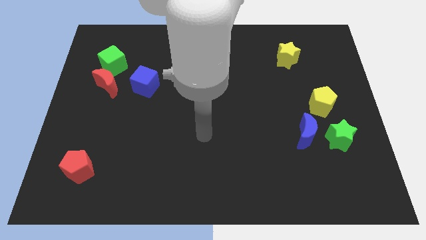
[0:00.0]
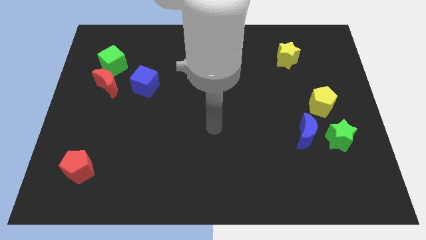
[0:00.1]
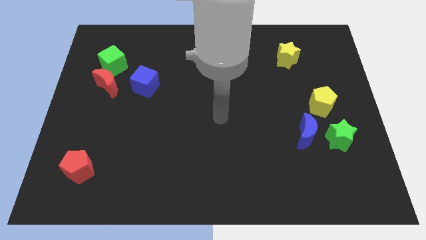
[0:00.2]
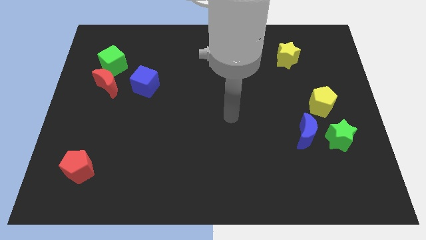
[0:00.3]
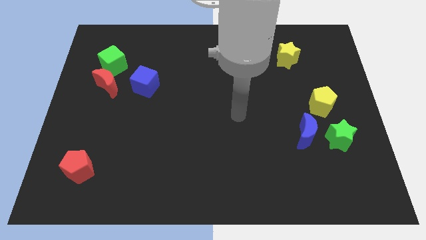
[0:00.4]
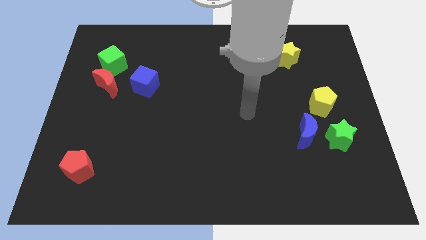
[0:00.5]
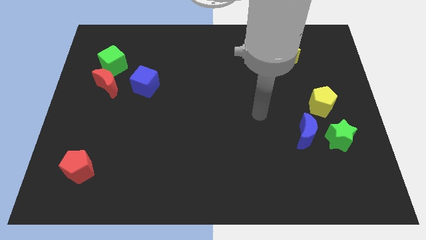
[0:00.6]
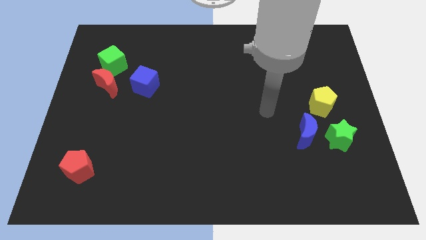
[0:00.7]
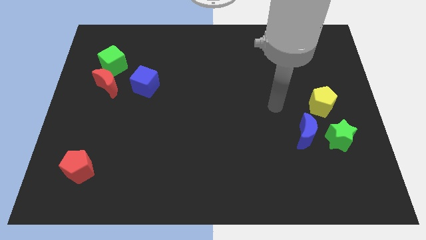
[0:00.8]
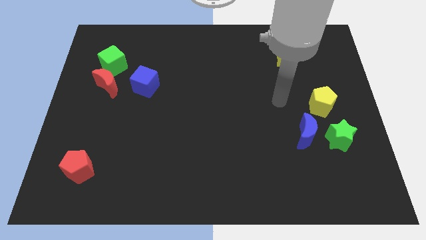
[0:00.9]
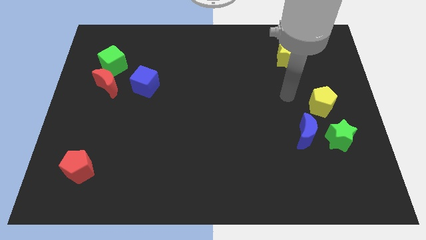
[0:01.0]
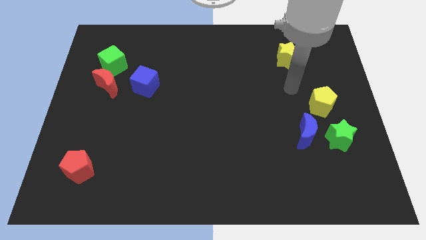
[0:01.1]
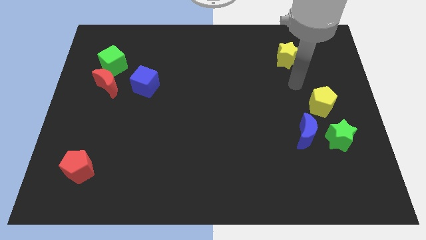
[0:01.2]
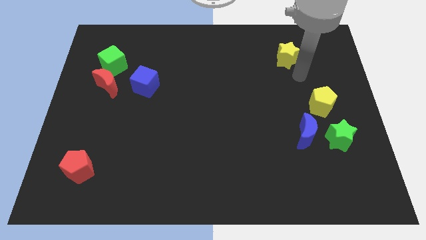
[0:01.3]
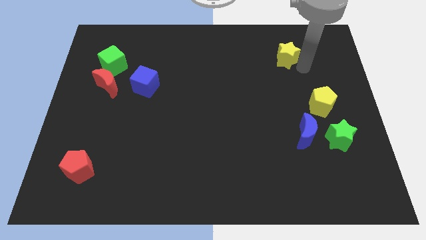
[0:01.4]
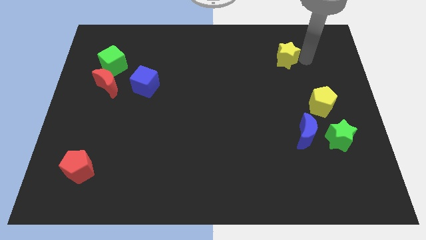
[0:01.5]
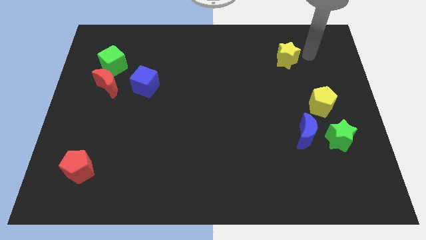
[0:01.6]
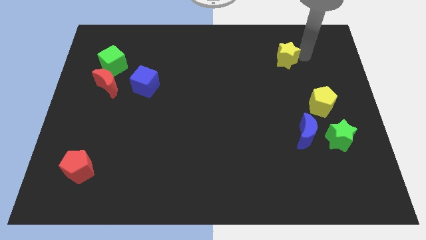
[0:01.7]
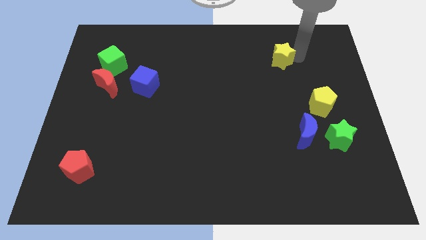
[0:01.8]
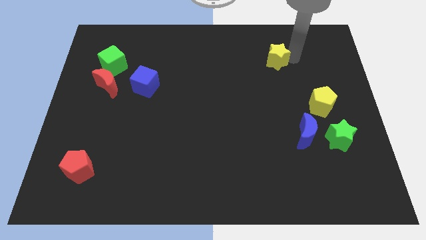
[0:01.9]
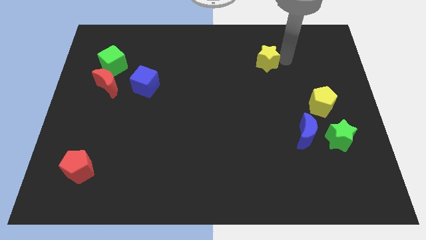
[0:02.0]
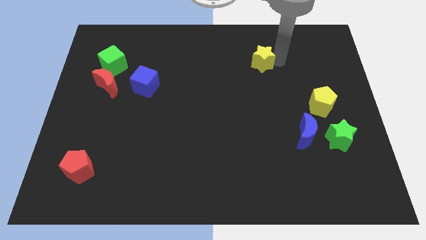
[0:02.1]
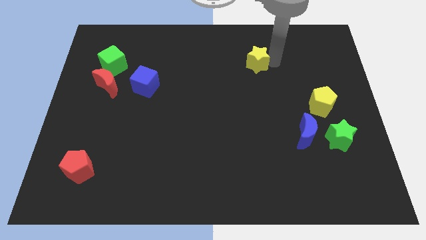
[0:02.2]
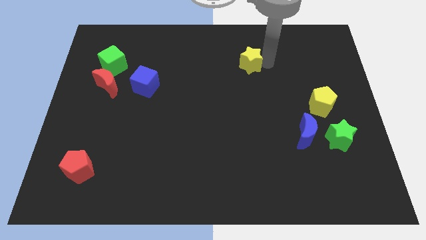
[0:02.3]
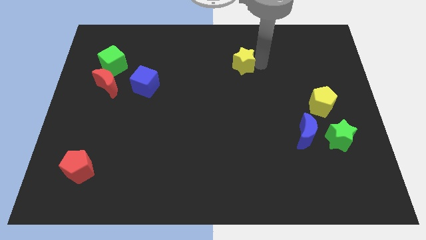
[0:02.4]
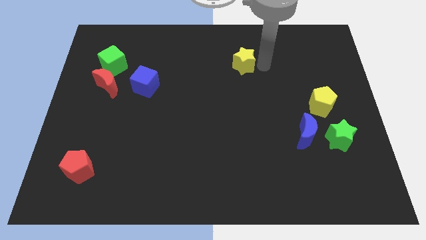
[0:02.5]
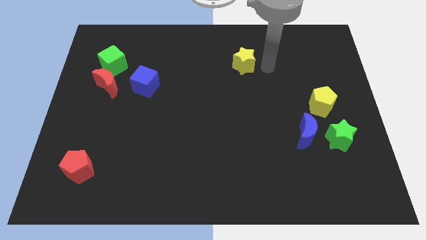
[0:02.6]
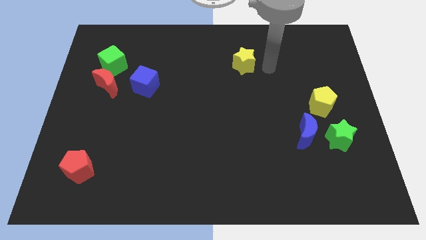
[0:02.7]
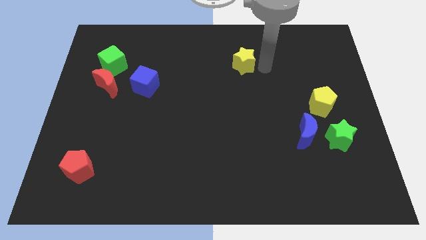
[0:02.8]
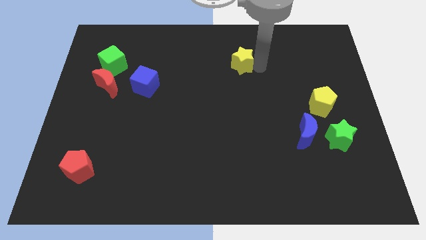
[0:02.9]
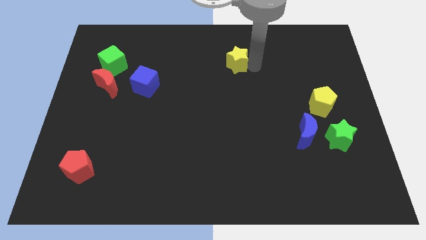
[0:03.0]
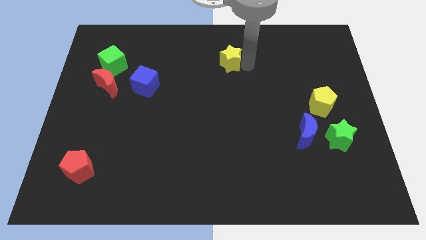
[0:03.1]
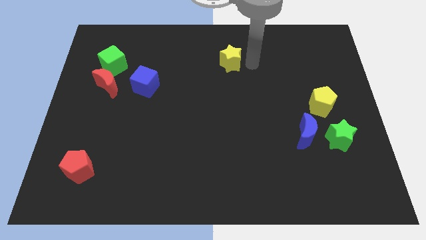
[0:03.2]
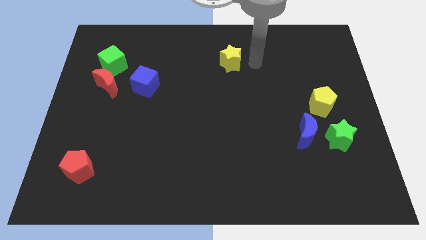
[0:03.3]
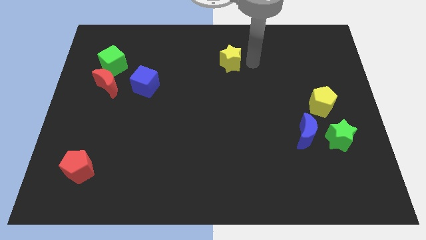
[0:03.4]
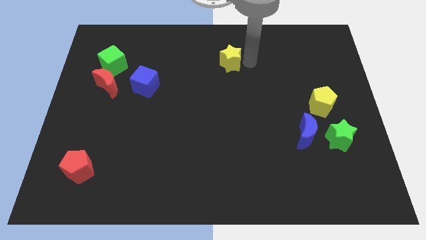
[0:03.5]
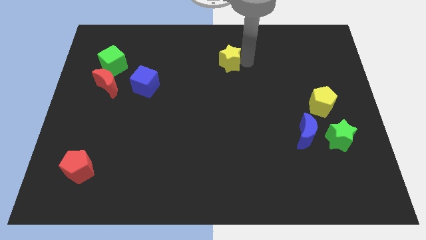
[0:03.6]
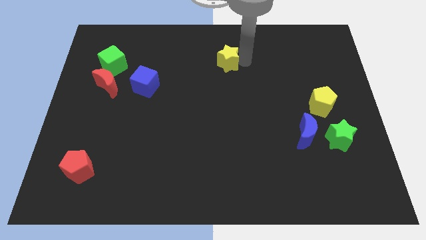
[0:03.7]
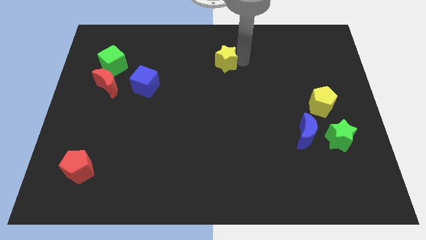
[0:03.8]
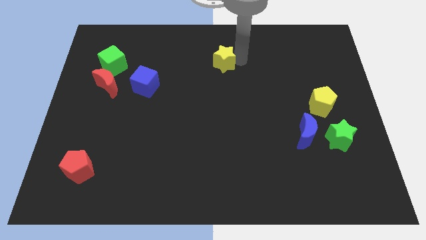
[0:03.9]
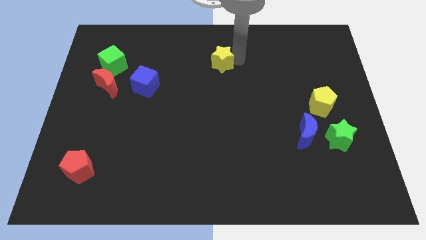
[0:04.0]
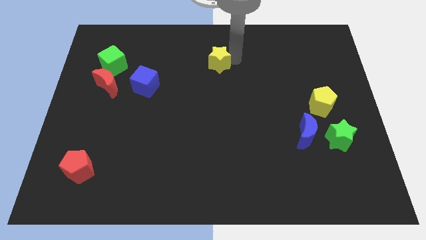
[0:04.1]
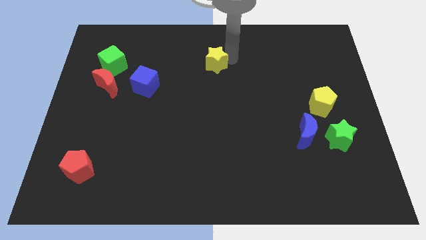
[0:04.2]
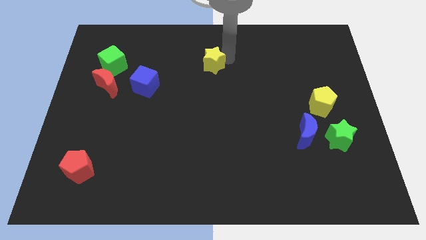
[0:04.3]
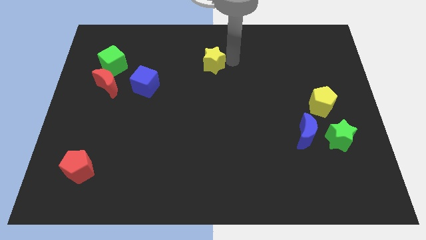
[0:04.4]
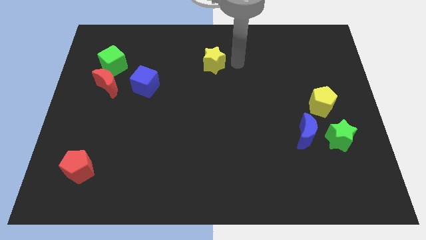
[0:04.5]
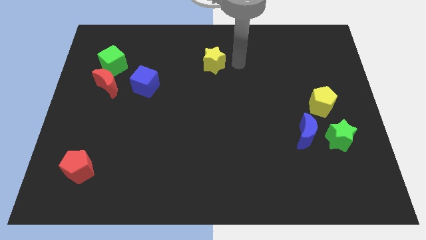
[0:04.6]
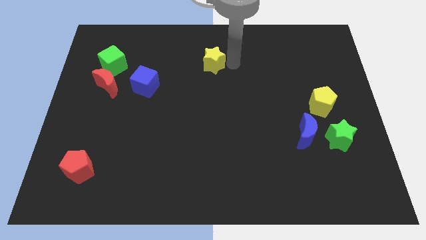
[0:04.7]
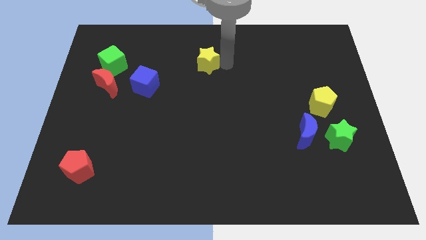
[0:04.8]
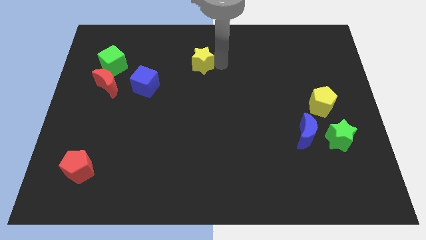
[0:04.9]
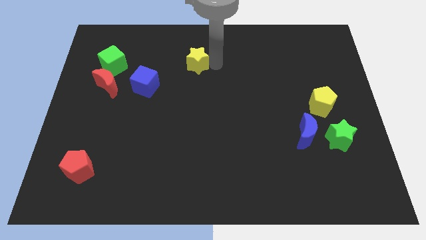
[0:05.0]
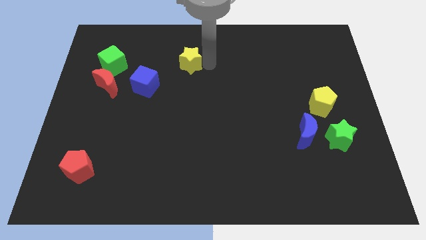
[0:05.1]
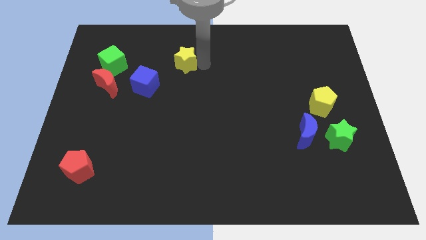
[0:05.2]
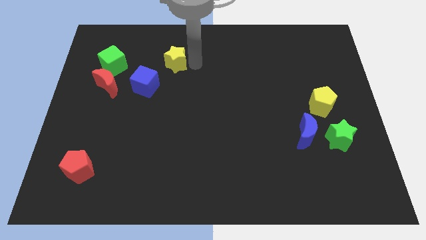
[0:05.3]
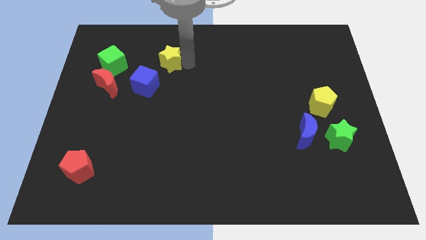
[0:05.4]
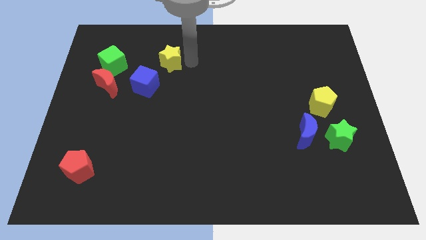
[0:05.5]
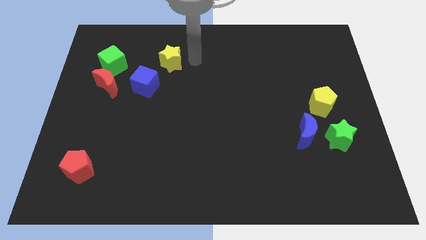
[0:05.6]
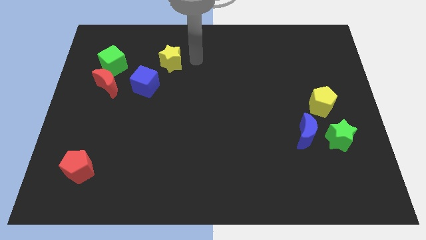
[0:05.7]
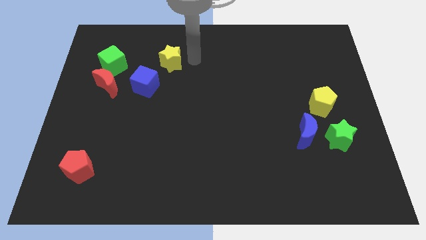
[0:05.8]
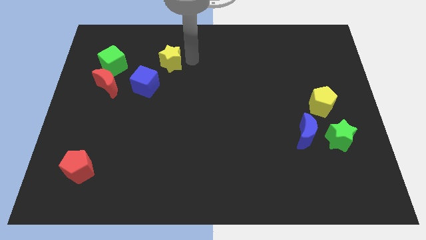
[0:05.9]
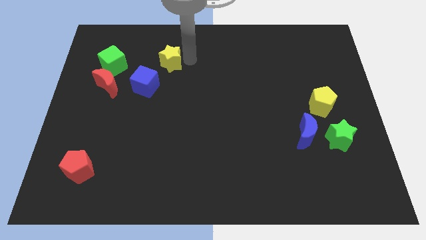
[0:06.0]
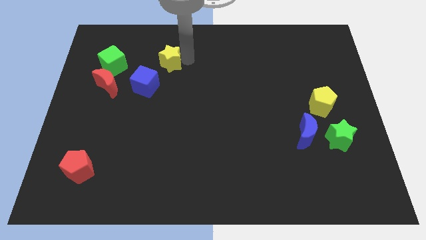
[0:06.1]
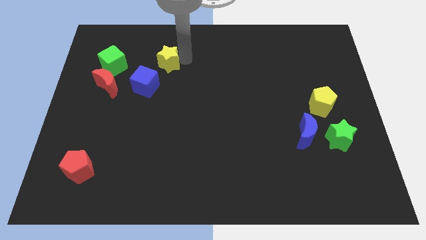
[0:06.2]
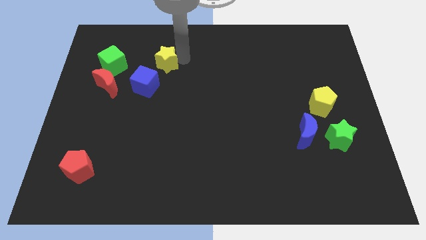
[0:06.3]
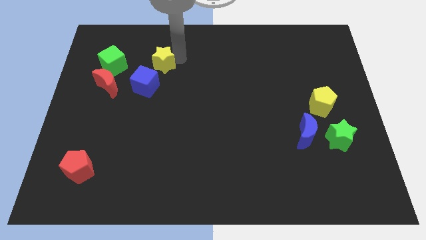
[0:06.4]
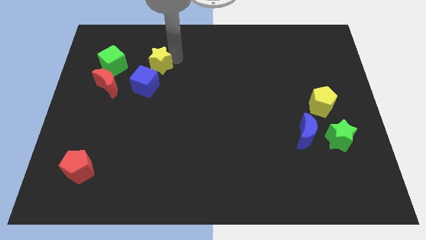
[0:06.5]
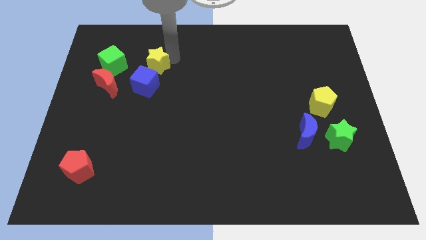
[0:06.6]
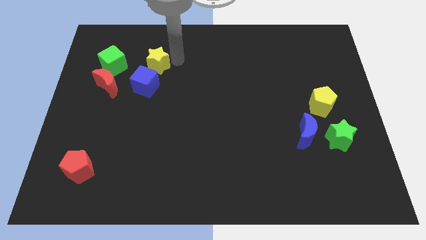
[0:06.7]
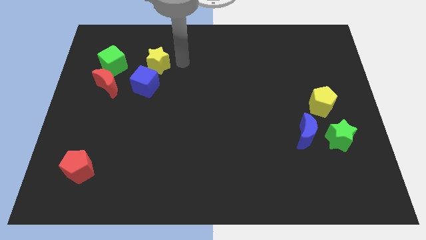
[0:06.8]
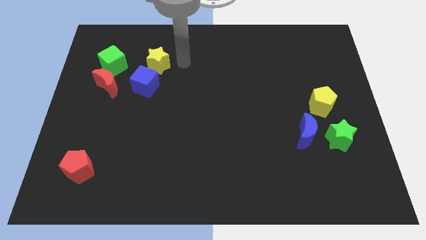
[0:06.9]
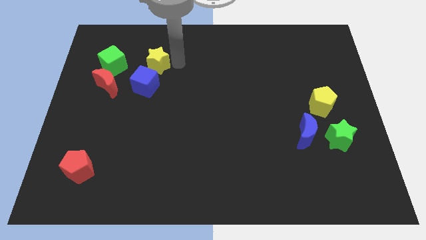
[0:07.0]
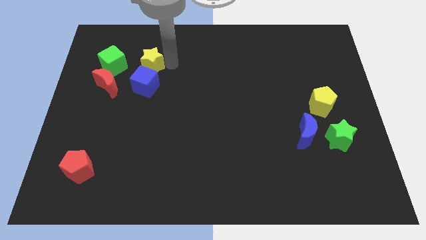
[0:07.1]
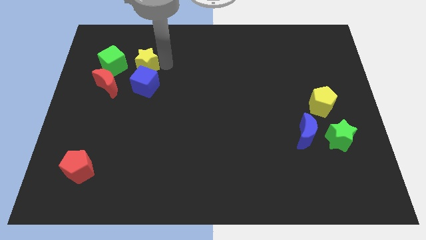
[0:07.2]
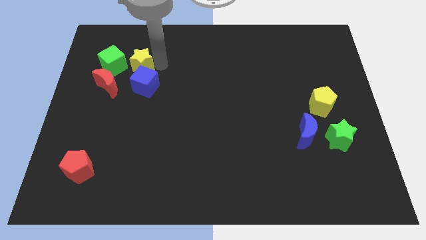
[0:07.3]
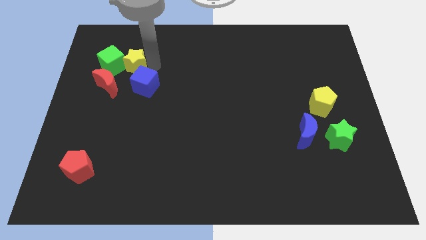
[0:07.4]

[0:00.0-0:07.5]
put the yellow star close to the green cube

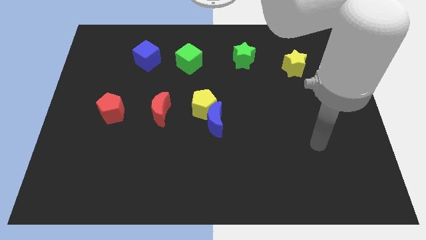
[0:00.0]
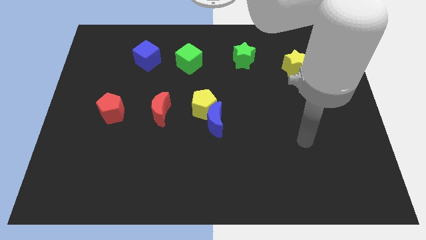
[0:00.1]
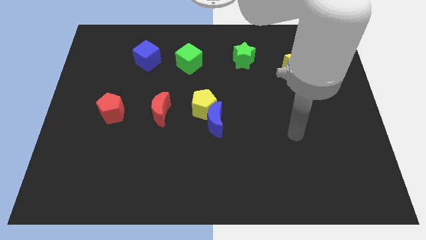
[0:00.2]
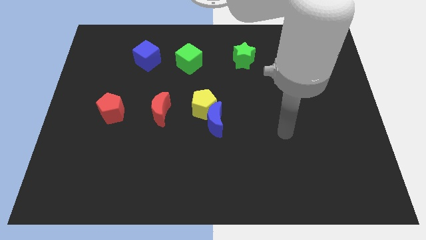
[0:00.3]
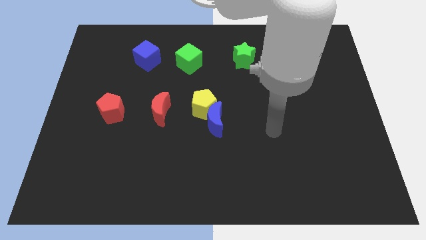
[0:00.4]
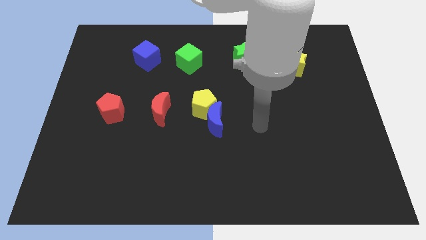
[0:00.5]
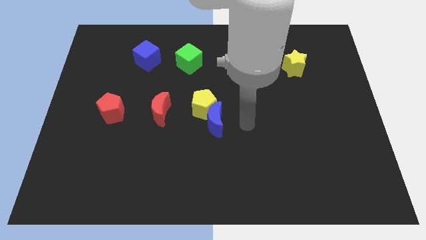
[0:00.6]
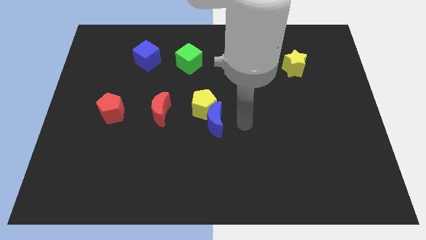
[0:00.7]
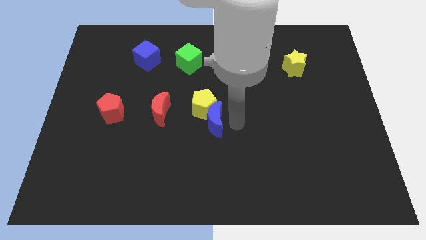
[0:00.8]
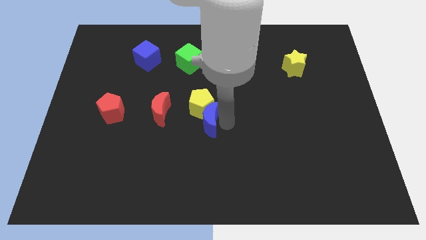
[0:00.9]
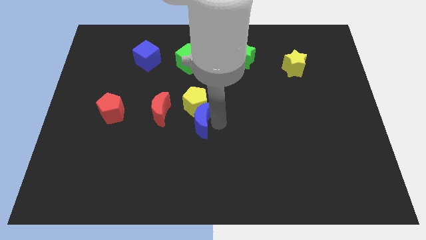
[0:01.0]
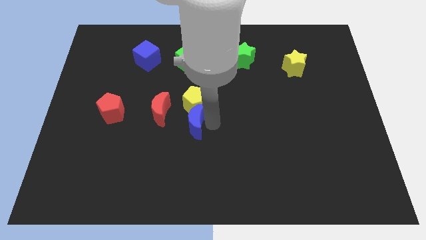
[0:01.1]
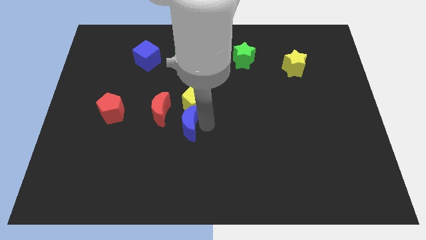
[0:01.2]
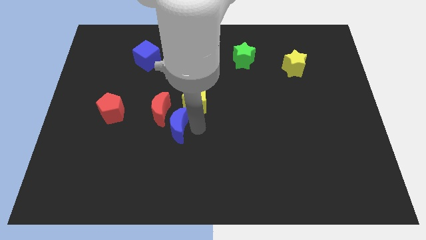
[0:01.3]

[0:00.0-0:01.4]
move the blue moon to the red moon
